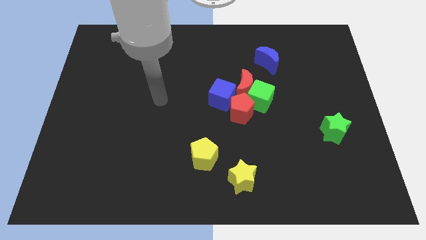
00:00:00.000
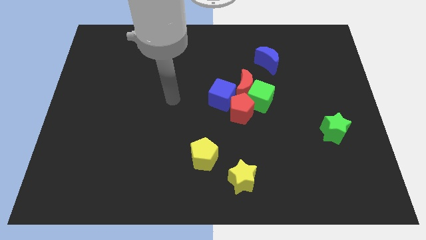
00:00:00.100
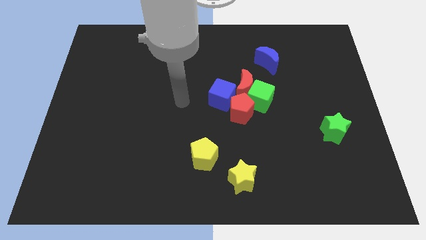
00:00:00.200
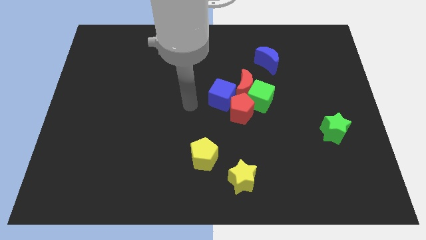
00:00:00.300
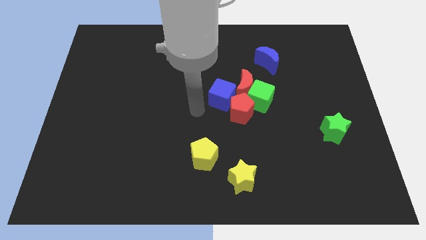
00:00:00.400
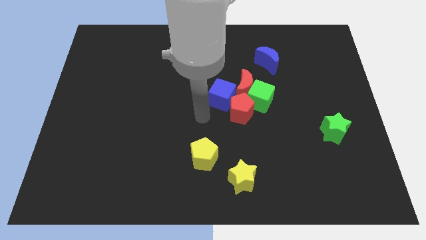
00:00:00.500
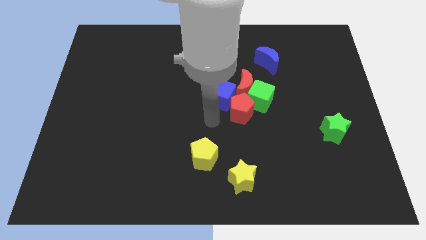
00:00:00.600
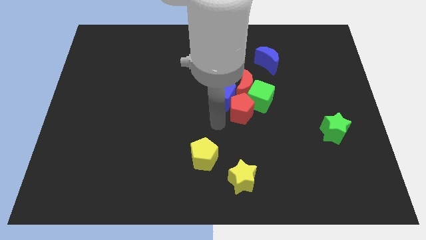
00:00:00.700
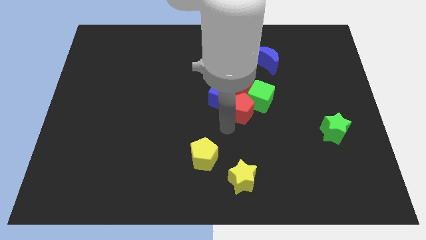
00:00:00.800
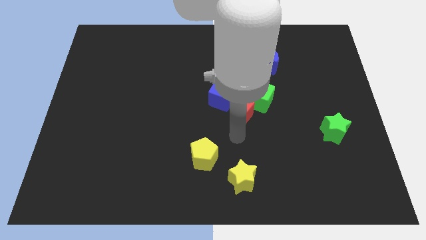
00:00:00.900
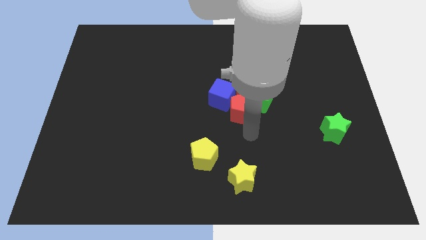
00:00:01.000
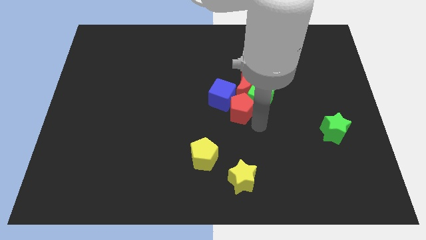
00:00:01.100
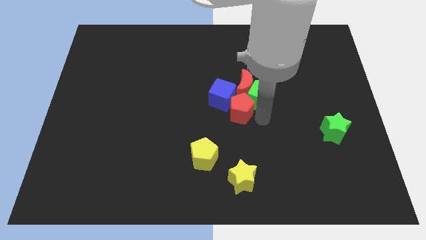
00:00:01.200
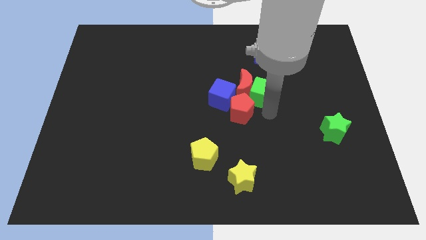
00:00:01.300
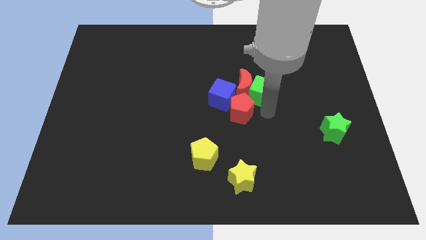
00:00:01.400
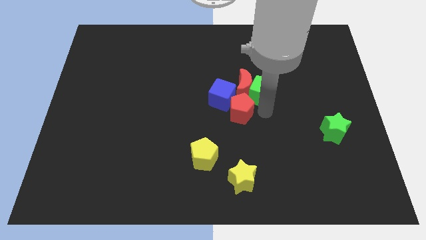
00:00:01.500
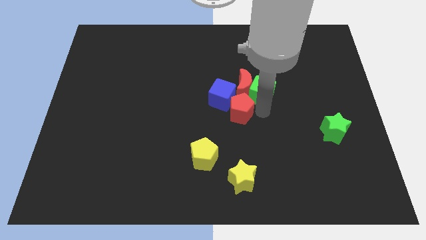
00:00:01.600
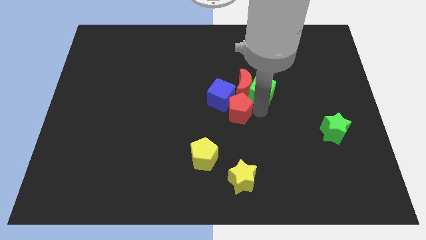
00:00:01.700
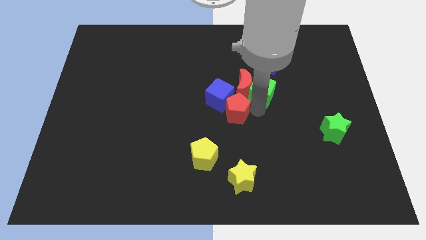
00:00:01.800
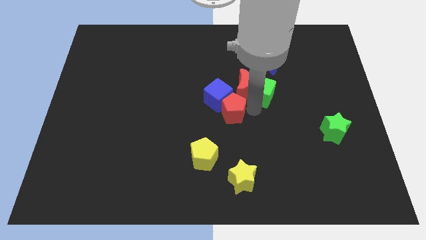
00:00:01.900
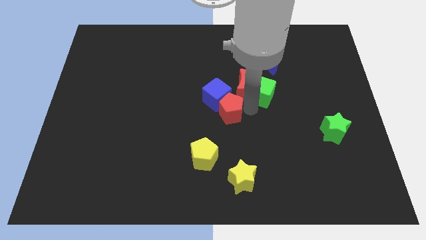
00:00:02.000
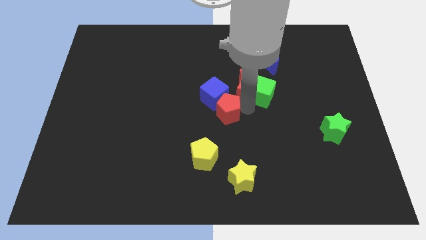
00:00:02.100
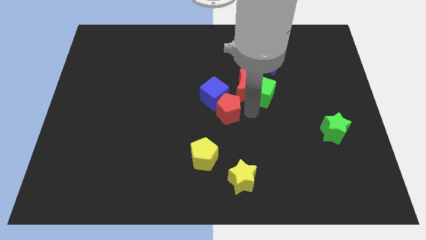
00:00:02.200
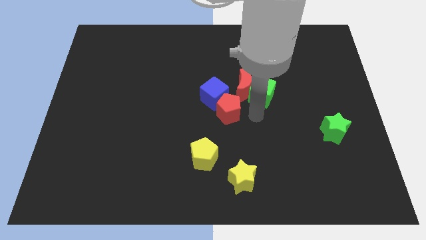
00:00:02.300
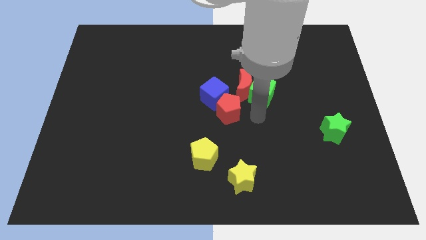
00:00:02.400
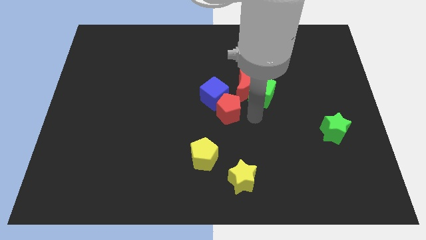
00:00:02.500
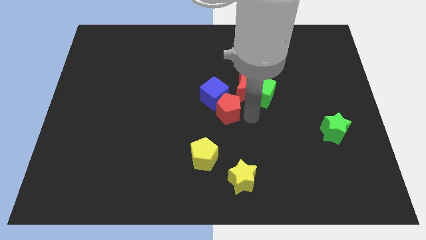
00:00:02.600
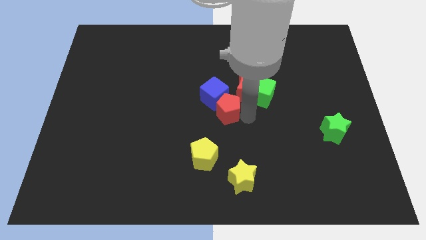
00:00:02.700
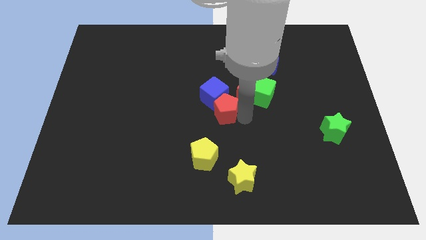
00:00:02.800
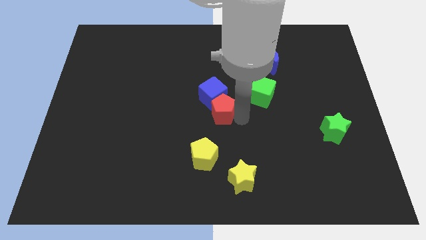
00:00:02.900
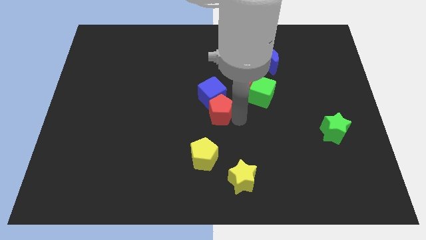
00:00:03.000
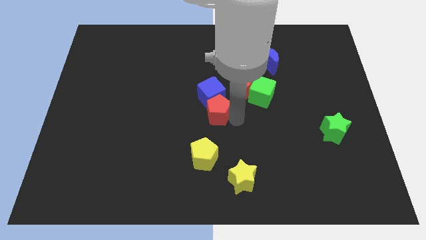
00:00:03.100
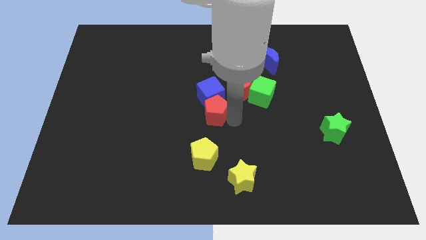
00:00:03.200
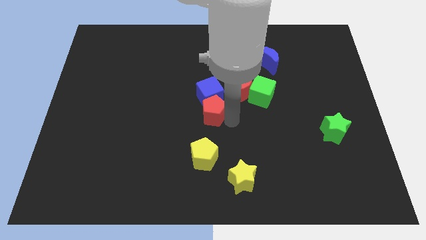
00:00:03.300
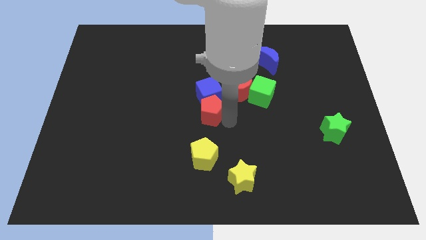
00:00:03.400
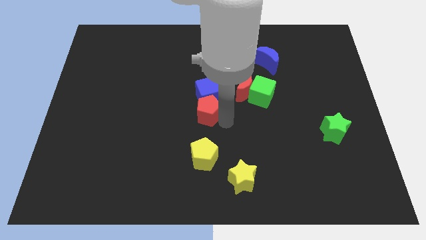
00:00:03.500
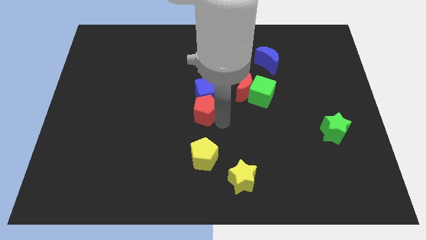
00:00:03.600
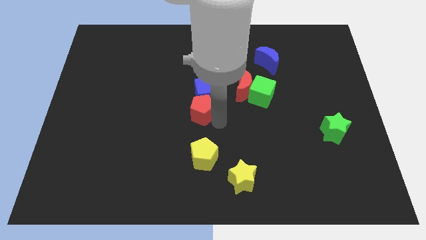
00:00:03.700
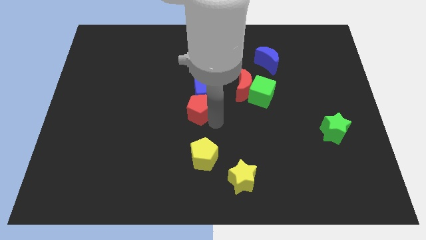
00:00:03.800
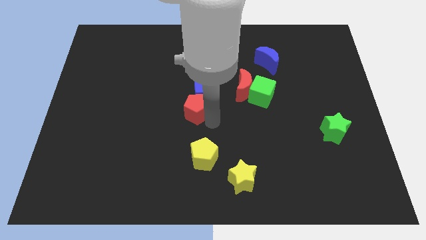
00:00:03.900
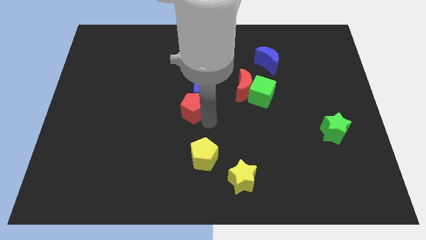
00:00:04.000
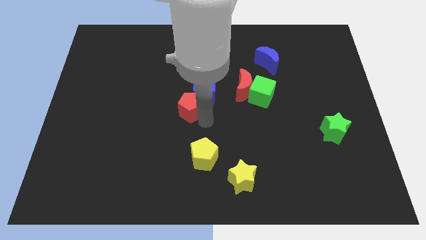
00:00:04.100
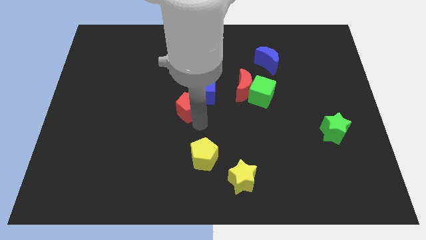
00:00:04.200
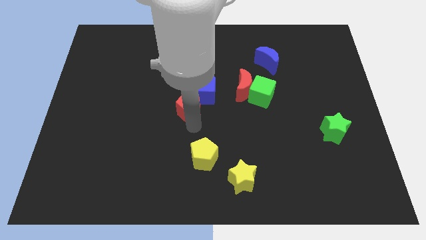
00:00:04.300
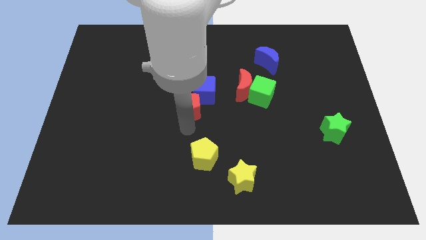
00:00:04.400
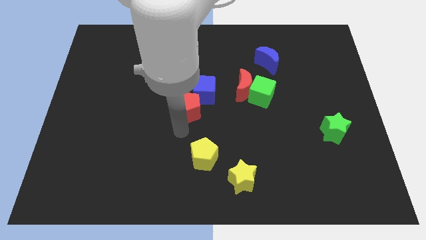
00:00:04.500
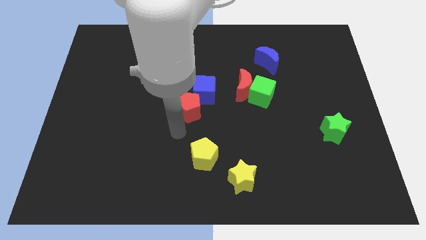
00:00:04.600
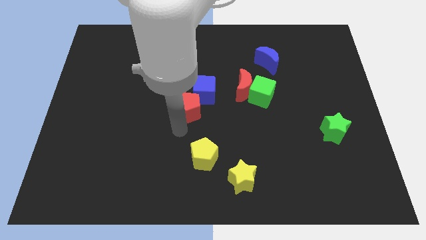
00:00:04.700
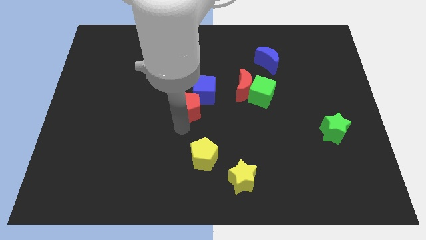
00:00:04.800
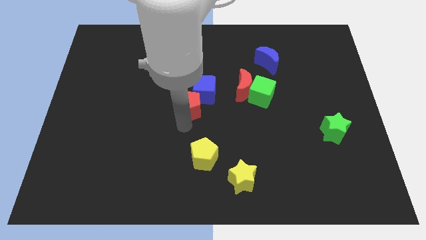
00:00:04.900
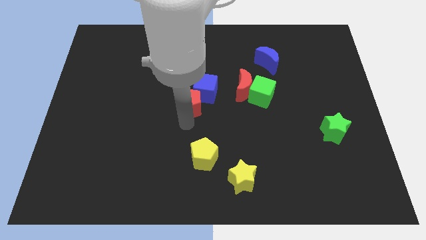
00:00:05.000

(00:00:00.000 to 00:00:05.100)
push the red pentagon upwards and to the left diagonally a little bit

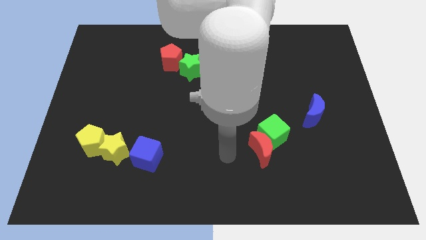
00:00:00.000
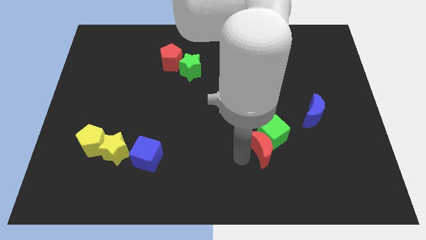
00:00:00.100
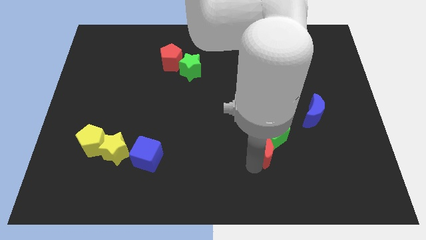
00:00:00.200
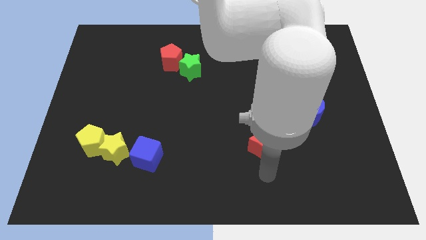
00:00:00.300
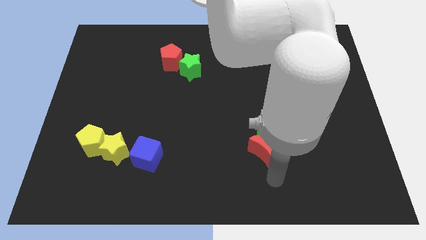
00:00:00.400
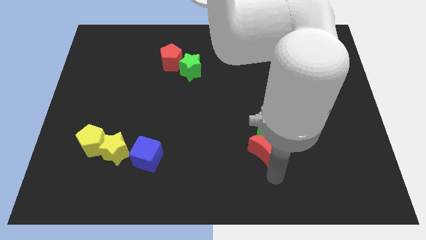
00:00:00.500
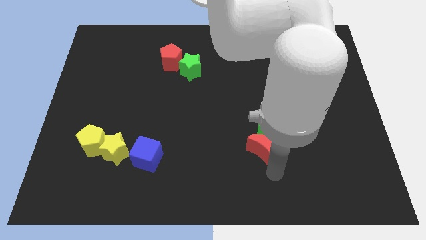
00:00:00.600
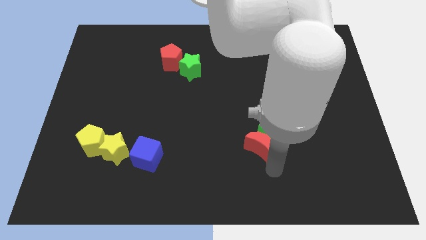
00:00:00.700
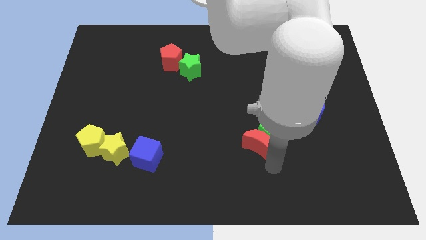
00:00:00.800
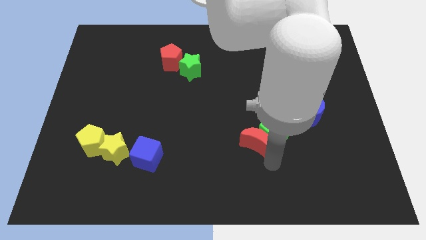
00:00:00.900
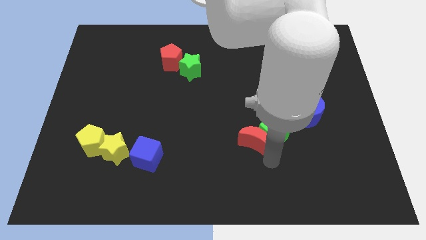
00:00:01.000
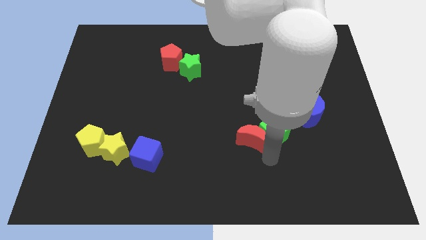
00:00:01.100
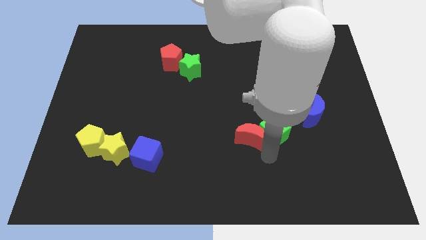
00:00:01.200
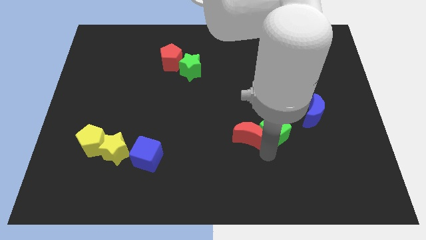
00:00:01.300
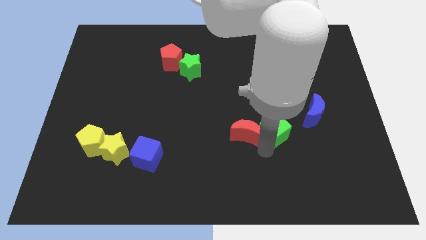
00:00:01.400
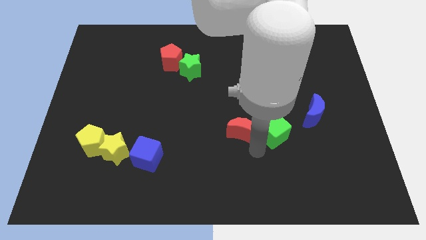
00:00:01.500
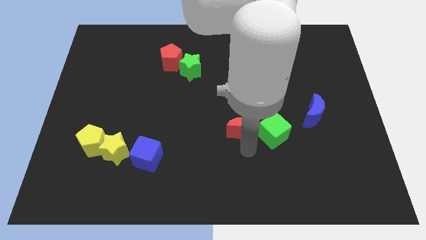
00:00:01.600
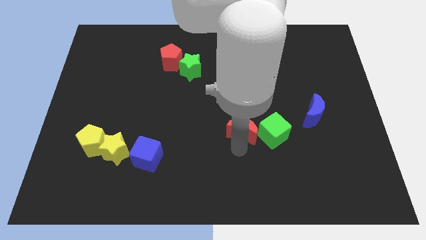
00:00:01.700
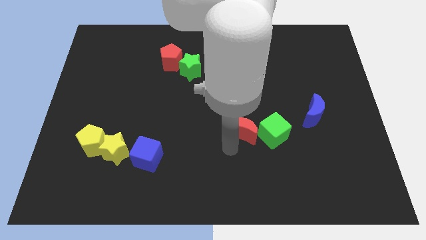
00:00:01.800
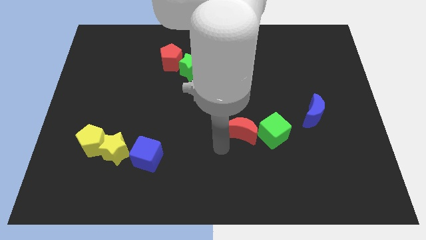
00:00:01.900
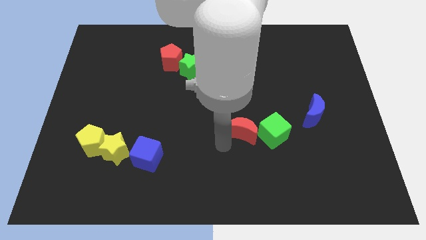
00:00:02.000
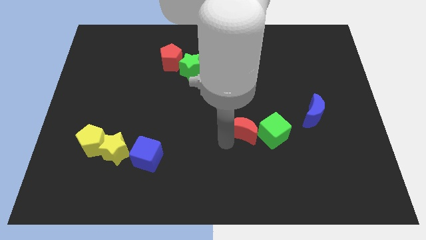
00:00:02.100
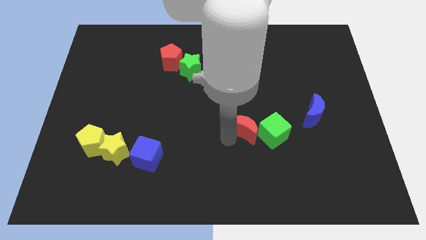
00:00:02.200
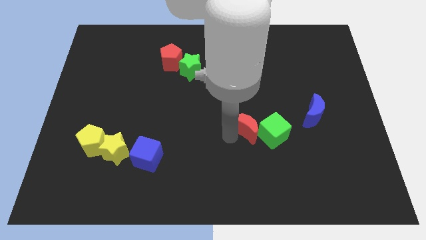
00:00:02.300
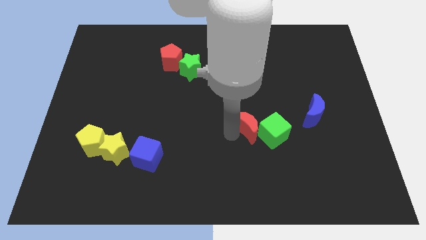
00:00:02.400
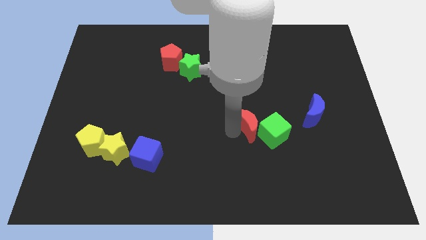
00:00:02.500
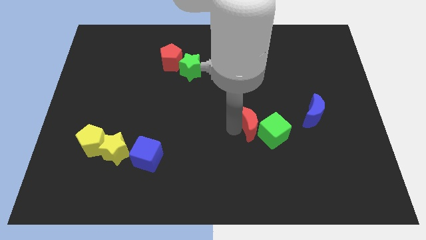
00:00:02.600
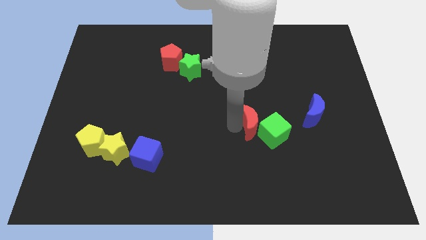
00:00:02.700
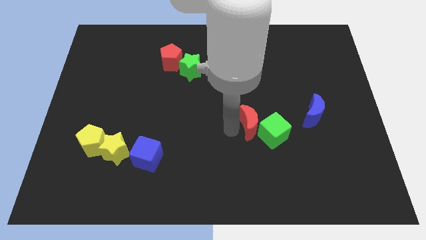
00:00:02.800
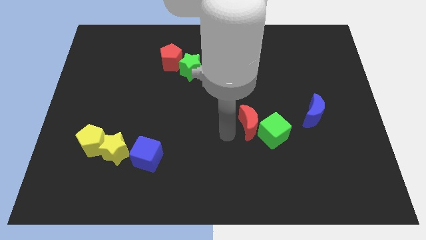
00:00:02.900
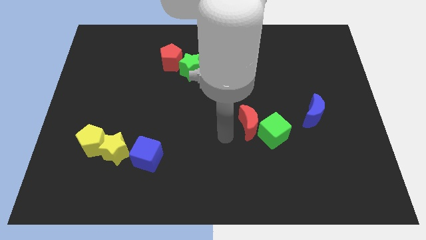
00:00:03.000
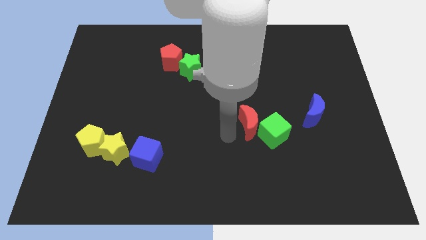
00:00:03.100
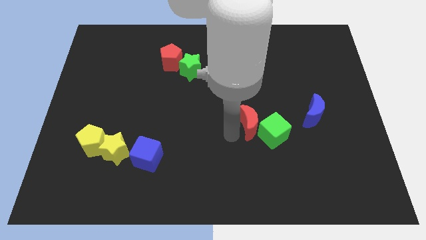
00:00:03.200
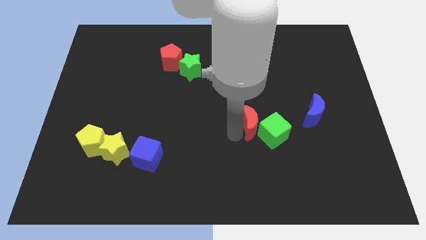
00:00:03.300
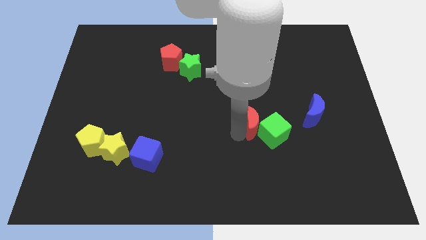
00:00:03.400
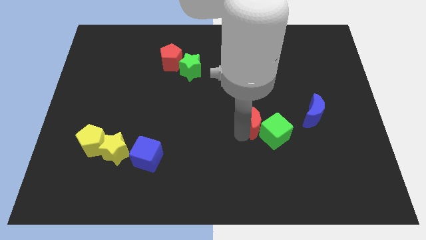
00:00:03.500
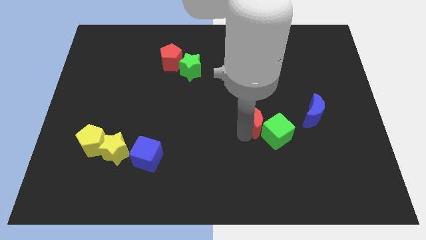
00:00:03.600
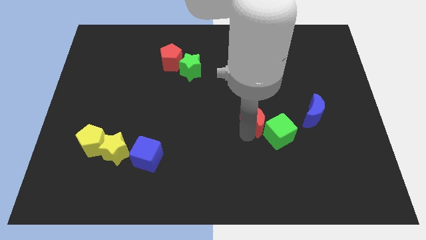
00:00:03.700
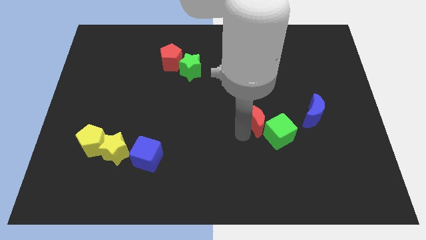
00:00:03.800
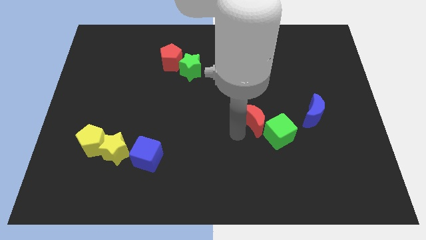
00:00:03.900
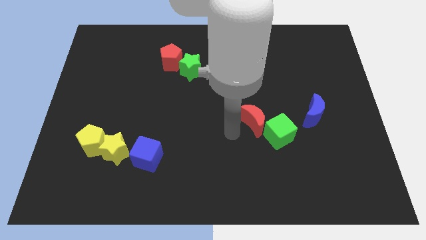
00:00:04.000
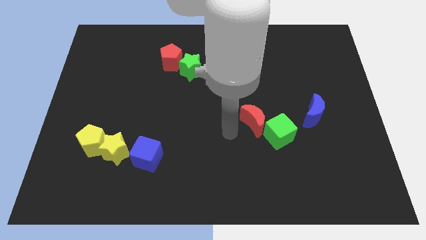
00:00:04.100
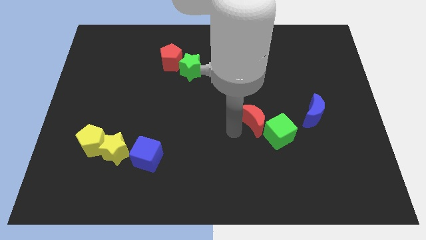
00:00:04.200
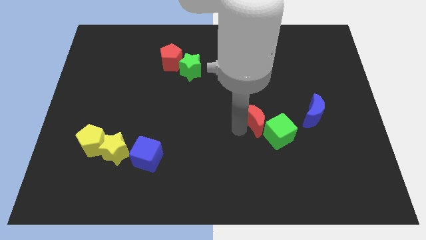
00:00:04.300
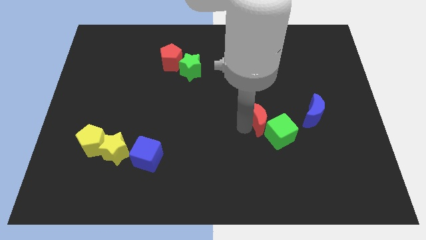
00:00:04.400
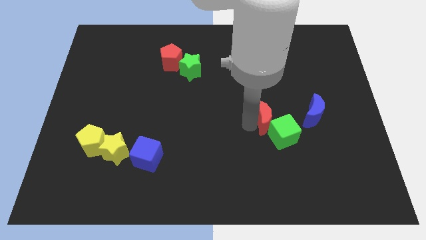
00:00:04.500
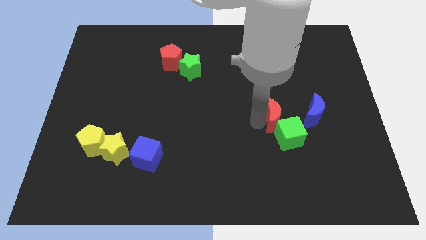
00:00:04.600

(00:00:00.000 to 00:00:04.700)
move the red moon diagonally up and to the right somewhat
